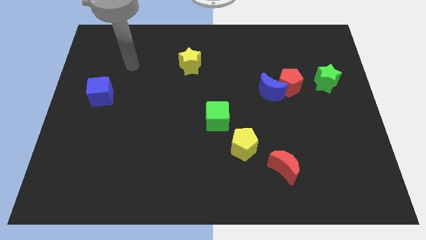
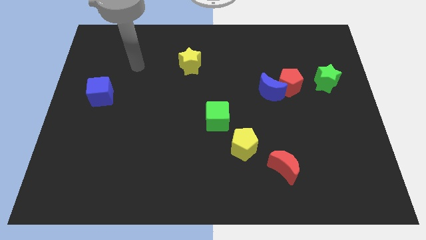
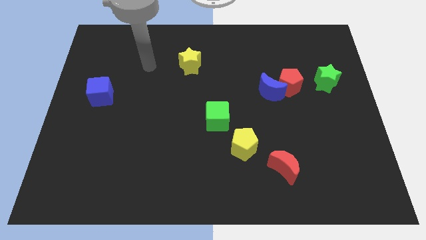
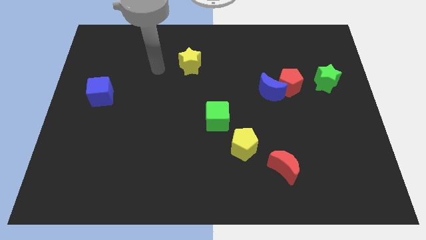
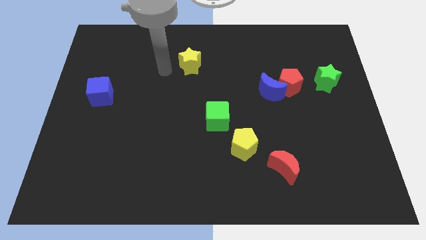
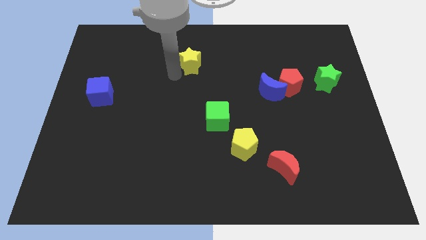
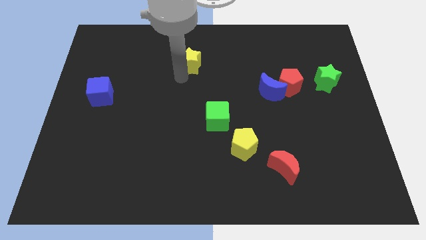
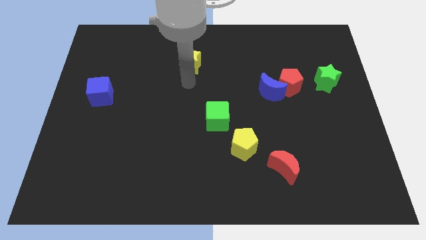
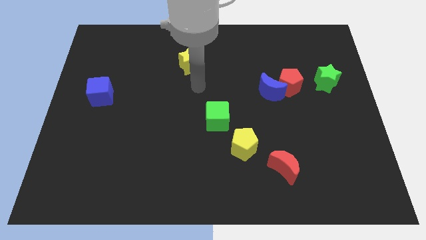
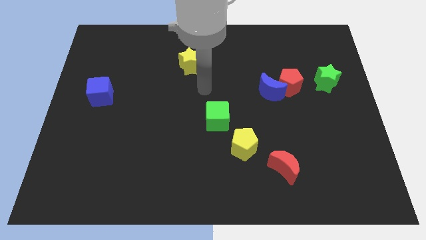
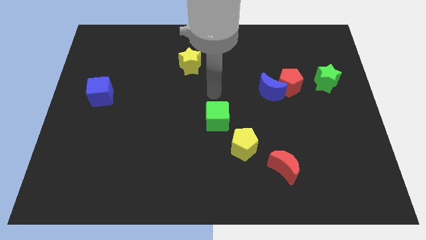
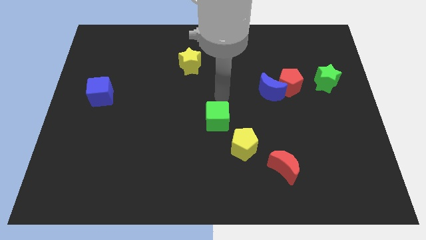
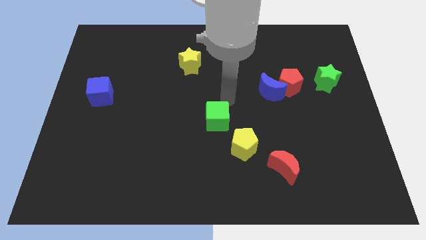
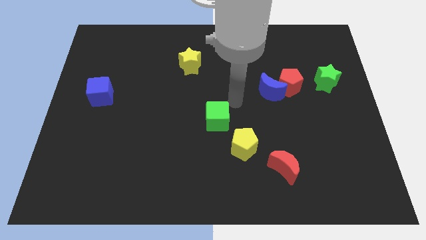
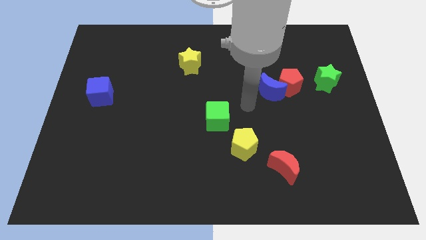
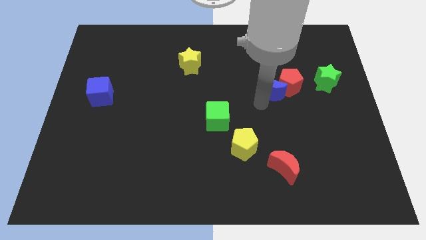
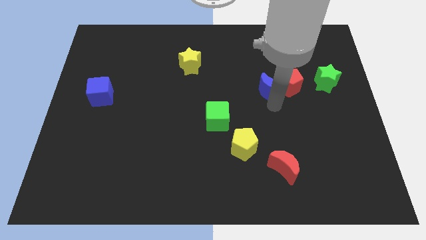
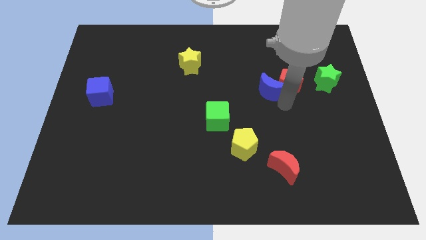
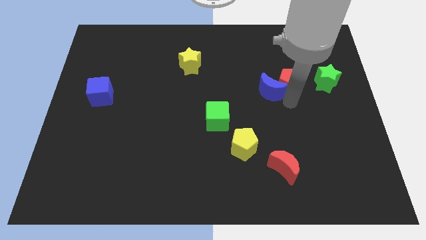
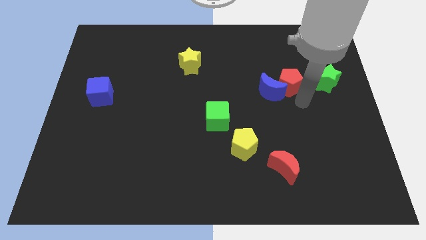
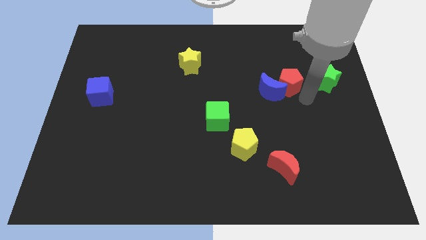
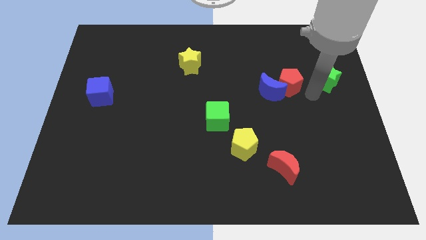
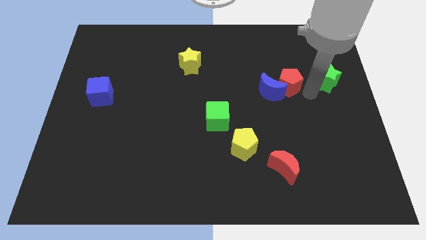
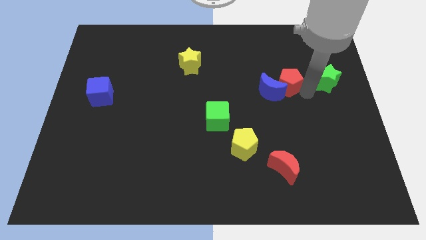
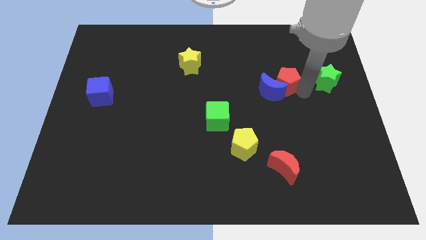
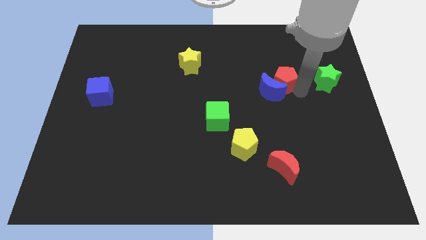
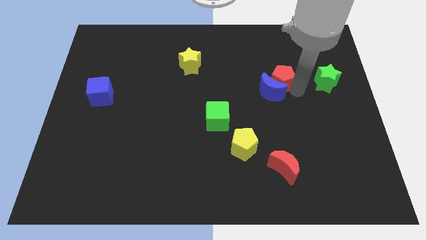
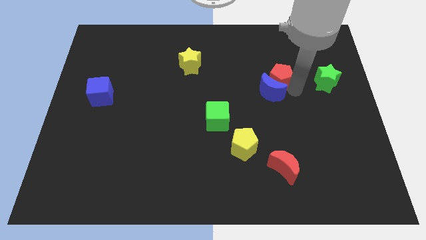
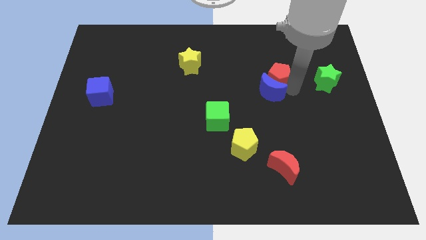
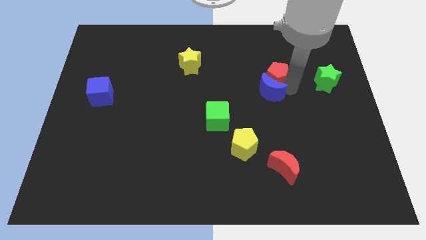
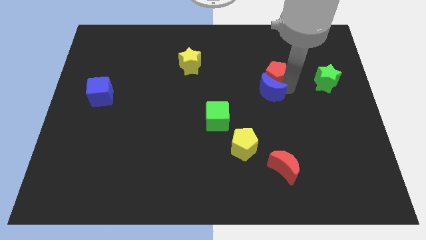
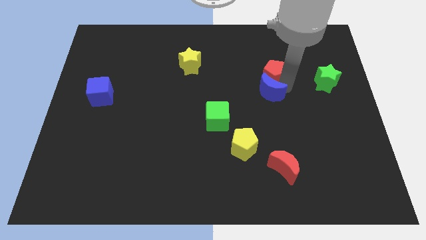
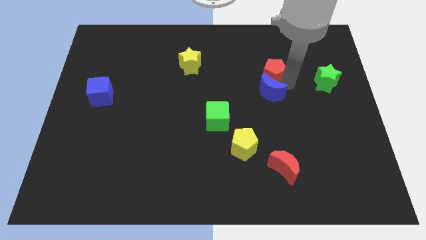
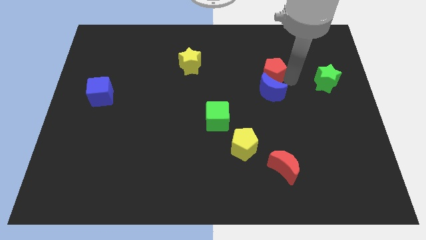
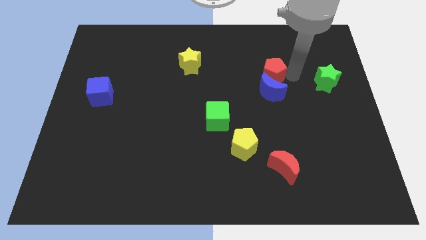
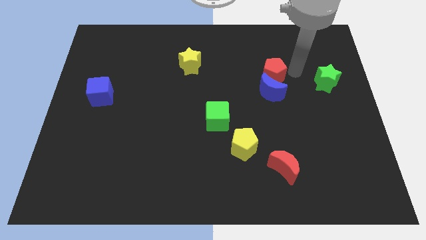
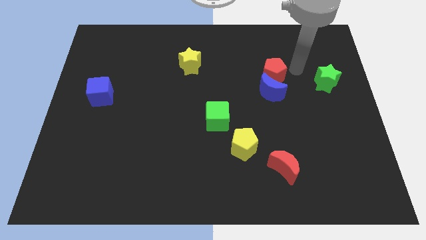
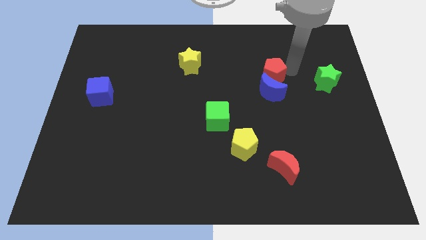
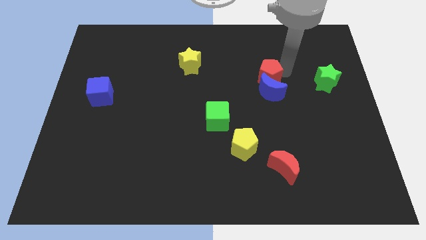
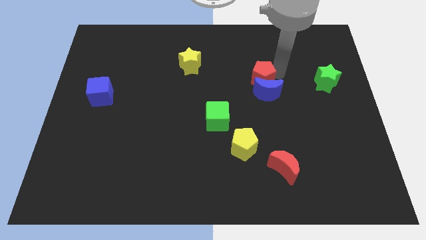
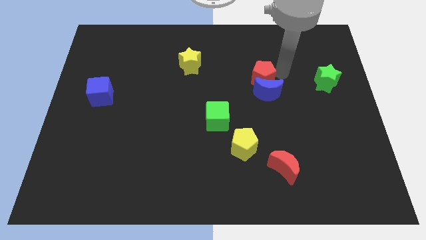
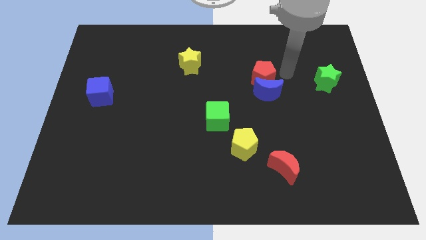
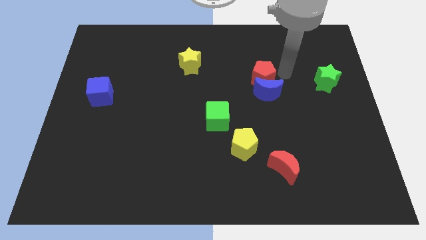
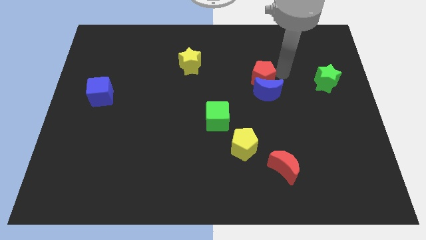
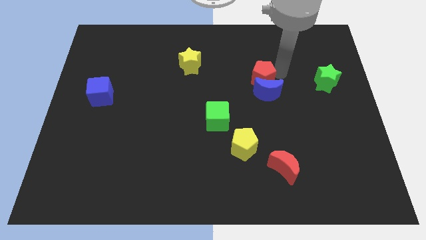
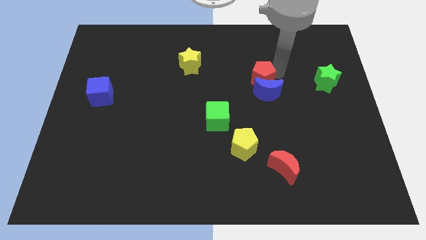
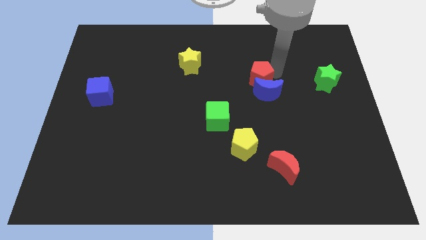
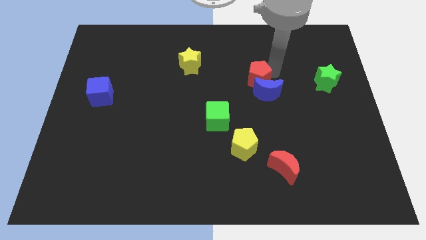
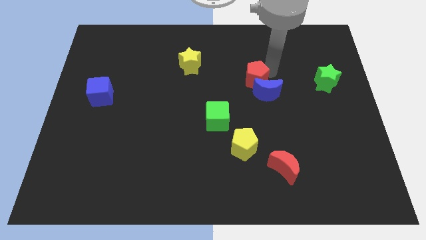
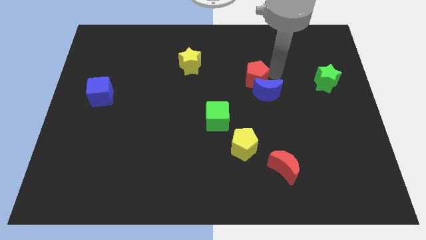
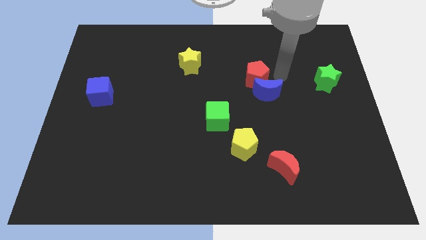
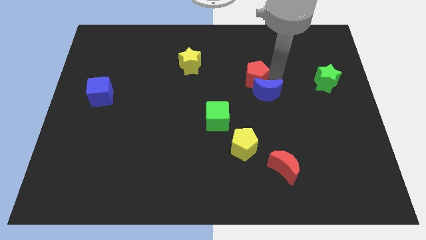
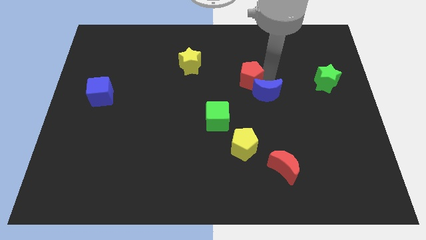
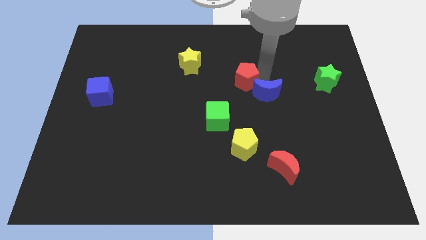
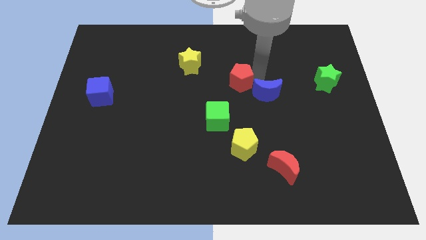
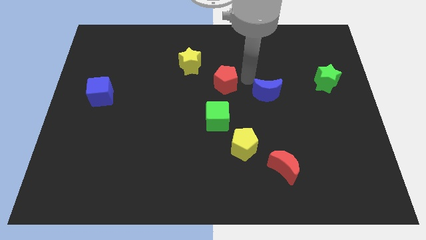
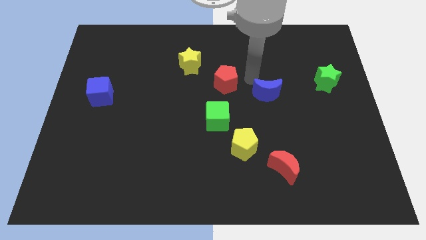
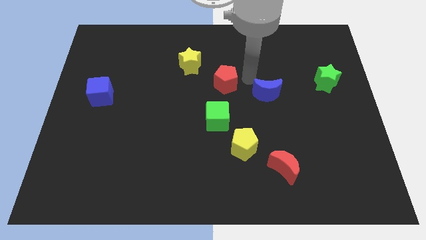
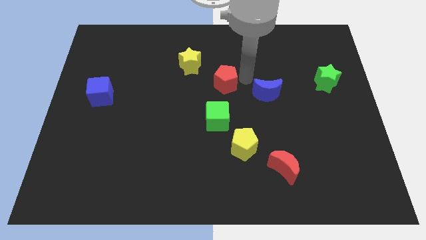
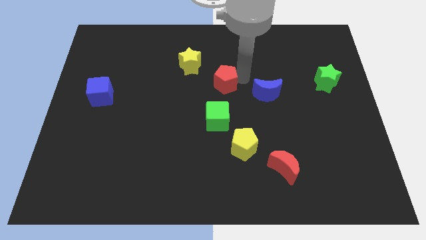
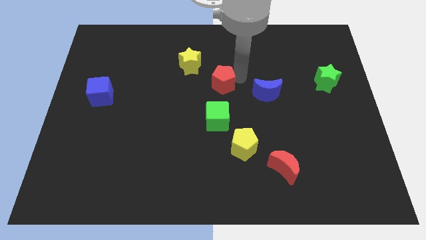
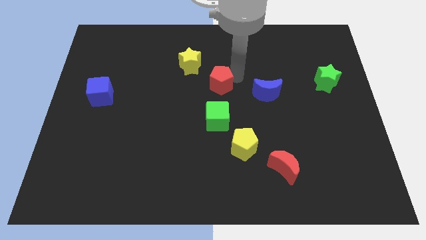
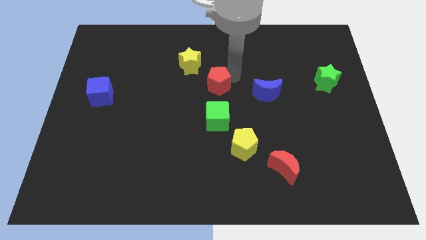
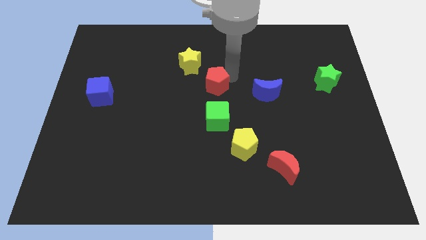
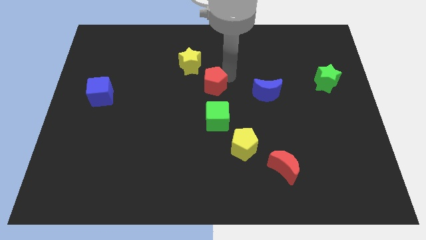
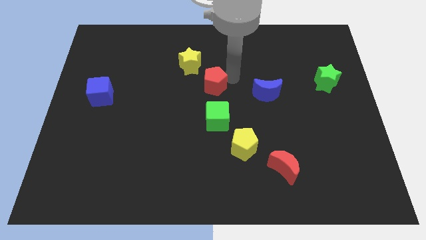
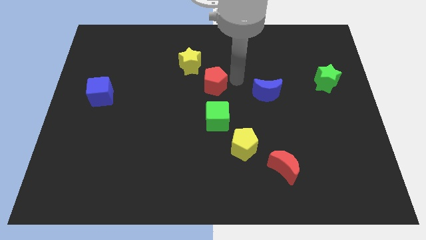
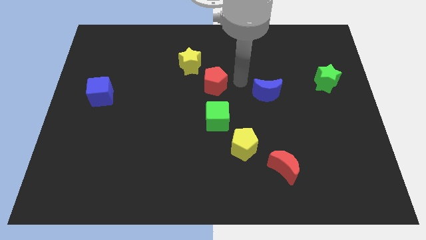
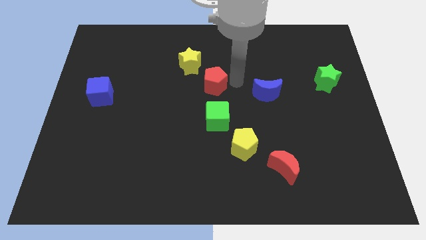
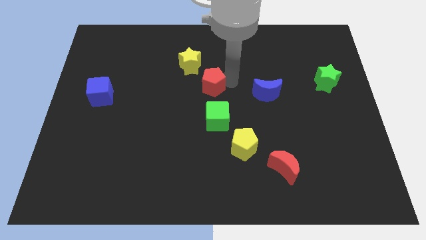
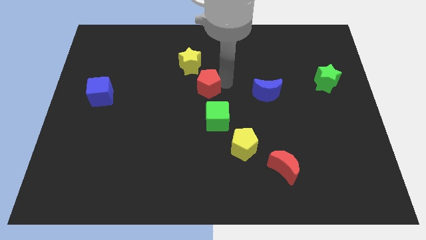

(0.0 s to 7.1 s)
move the red pentagon left

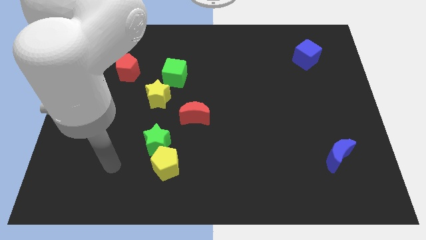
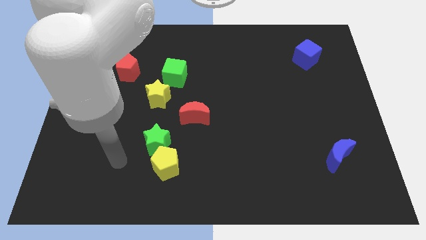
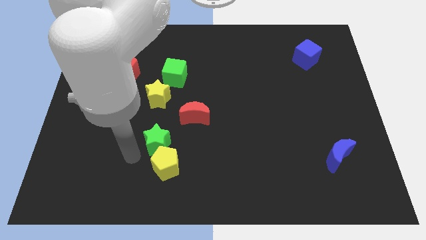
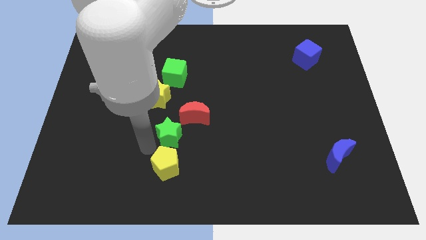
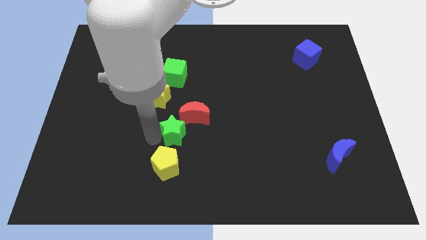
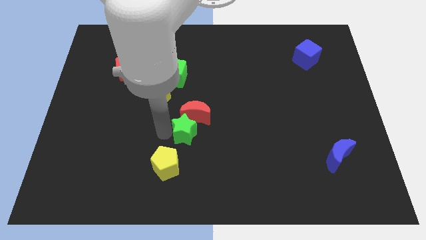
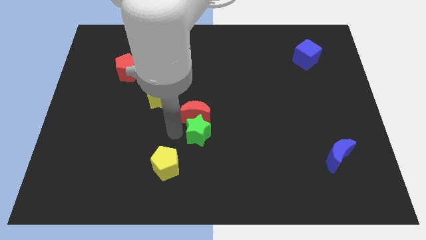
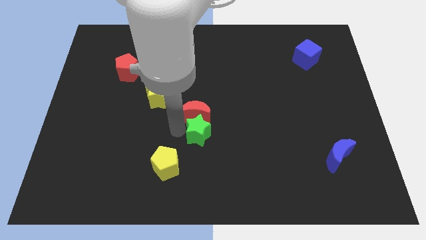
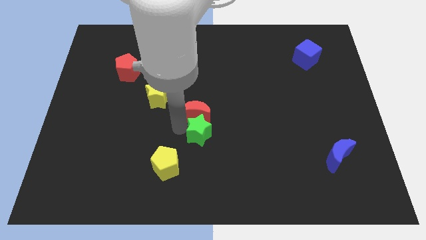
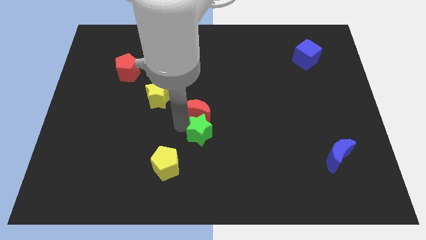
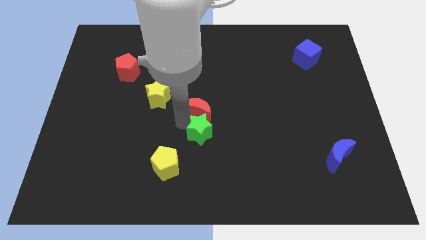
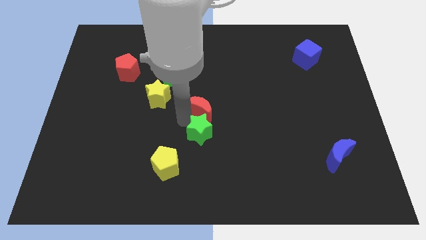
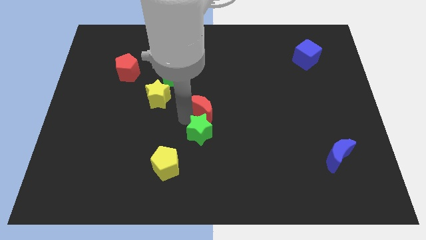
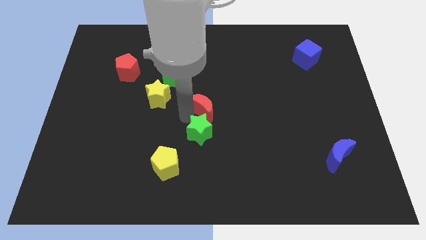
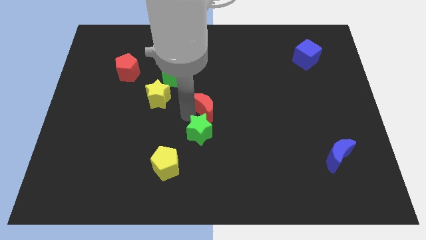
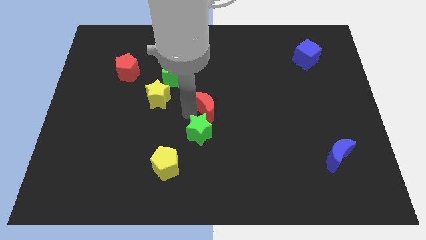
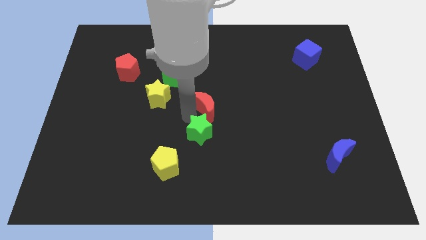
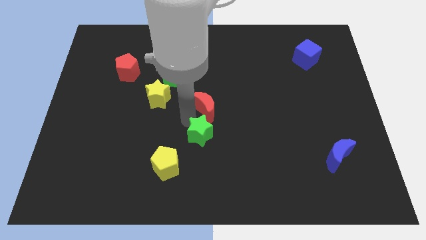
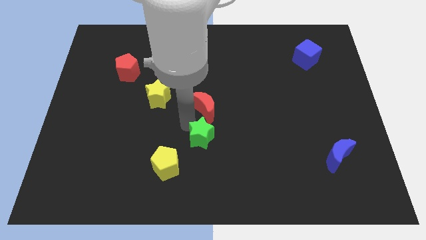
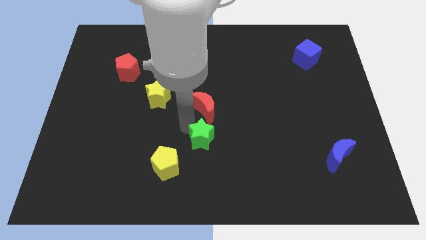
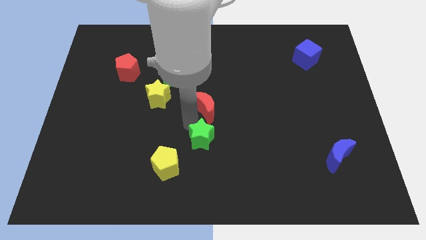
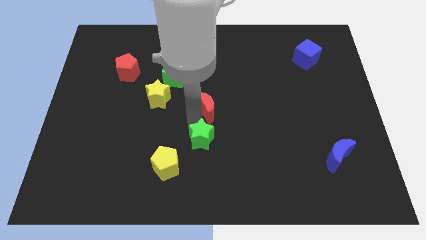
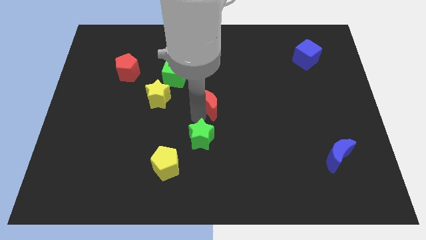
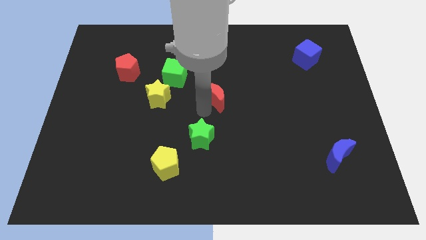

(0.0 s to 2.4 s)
slide the red moon a little up and right
